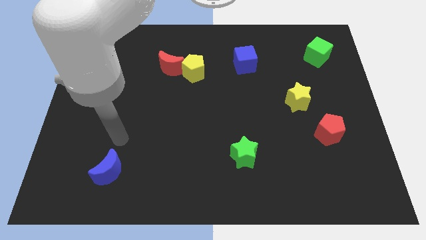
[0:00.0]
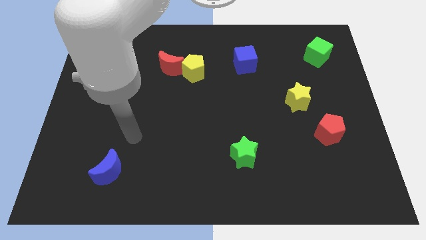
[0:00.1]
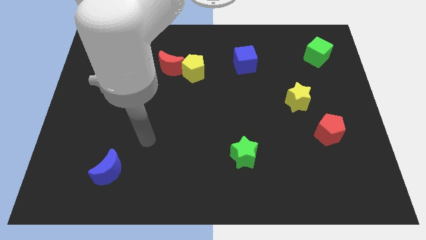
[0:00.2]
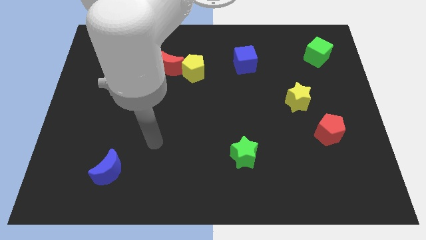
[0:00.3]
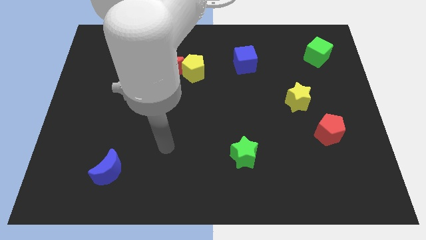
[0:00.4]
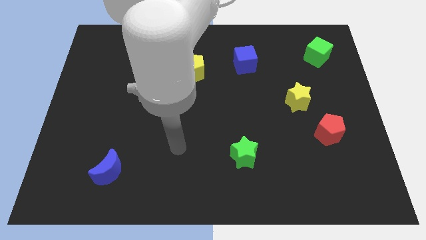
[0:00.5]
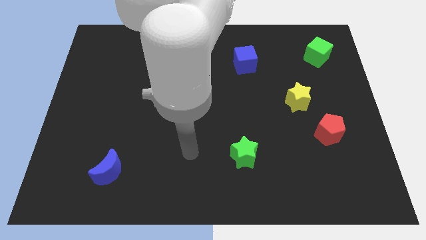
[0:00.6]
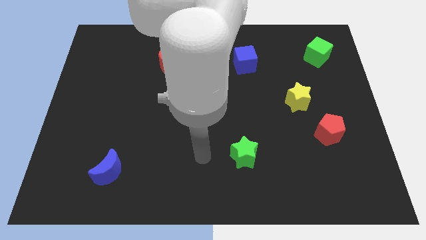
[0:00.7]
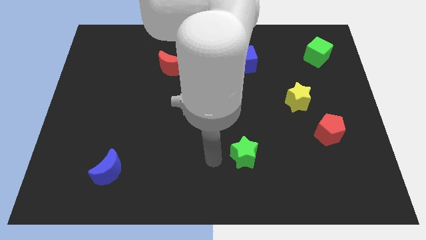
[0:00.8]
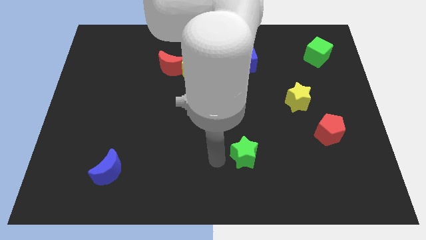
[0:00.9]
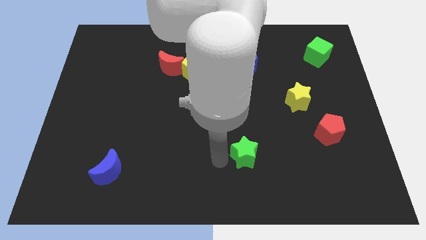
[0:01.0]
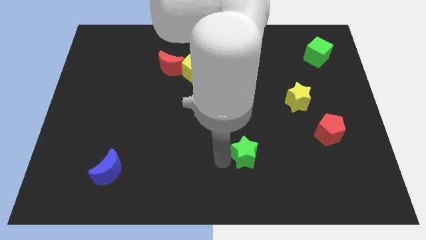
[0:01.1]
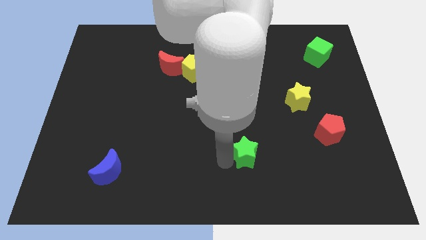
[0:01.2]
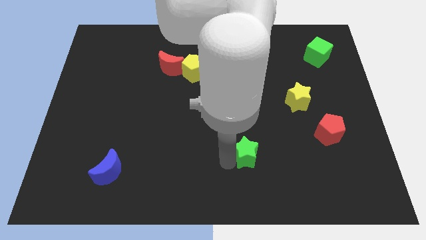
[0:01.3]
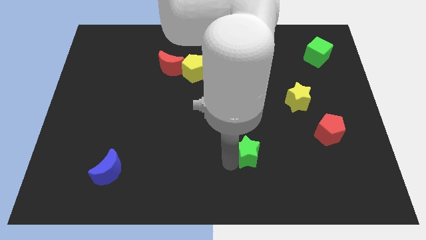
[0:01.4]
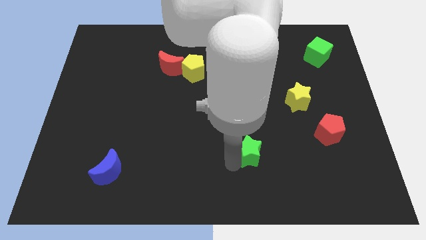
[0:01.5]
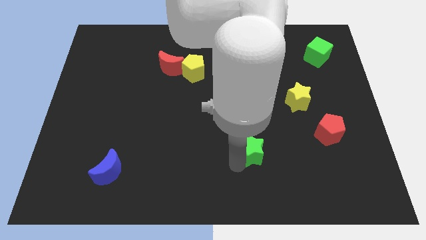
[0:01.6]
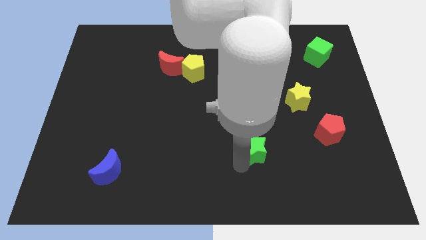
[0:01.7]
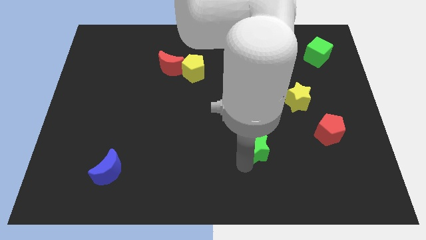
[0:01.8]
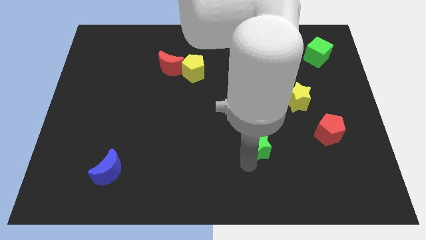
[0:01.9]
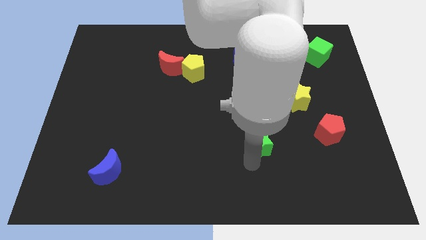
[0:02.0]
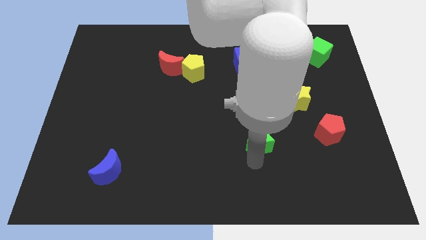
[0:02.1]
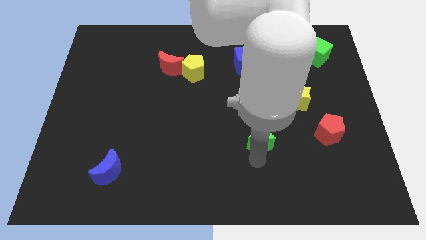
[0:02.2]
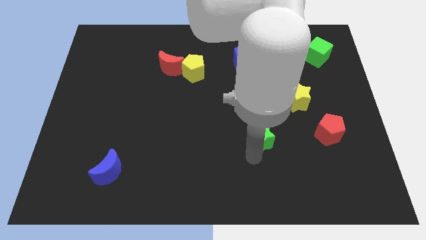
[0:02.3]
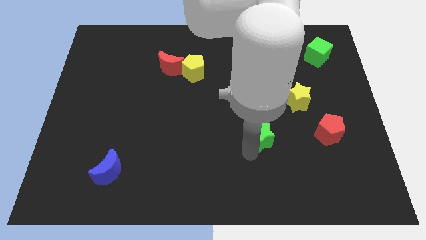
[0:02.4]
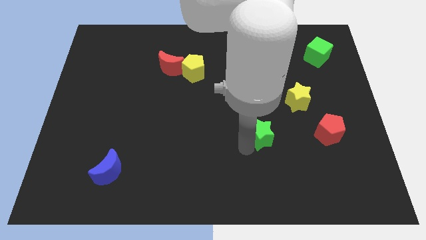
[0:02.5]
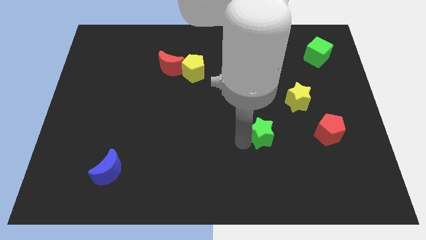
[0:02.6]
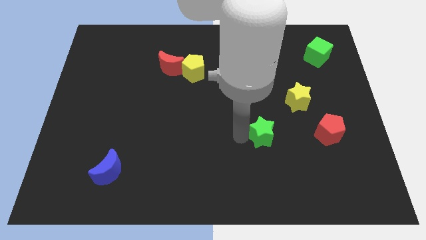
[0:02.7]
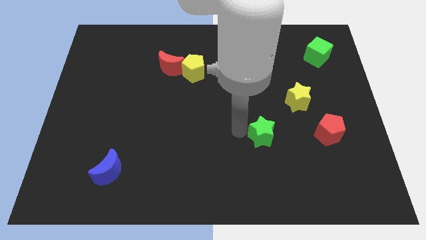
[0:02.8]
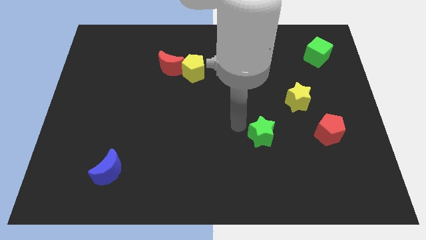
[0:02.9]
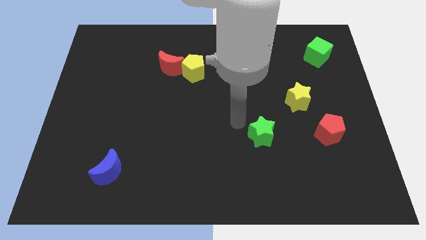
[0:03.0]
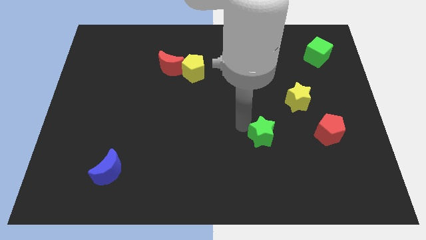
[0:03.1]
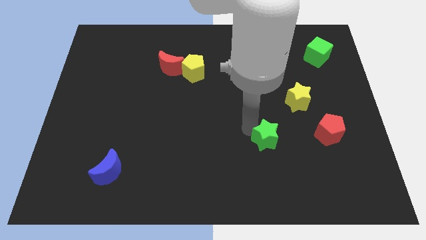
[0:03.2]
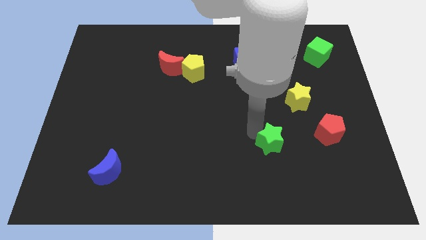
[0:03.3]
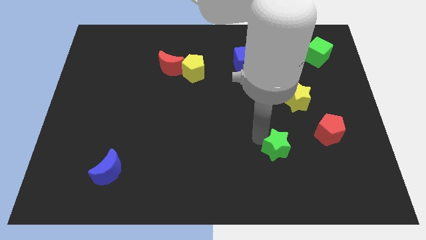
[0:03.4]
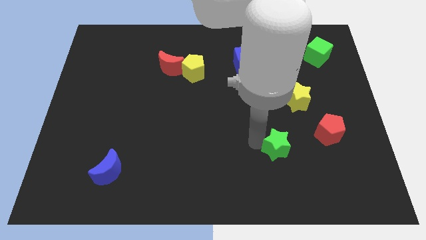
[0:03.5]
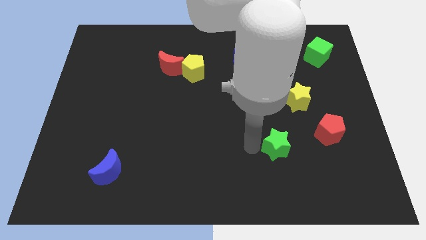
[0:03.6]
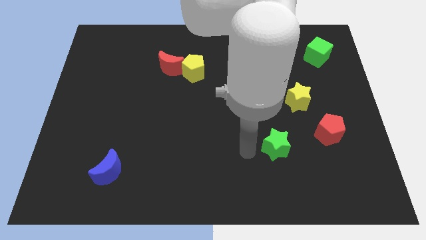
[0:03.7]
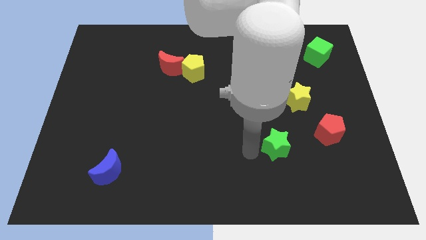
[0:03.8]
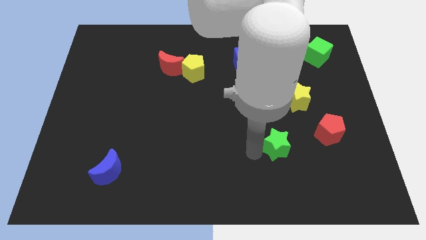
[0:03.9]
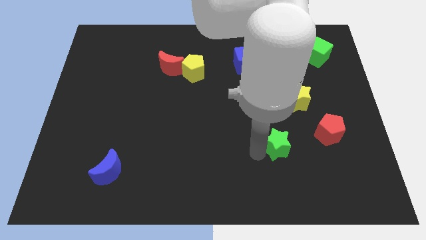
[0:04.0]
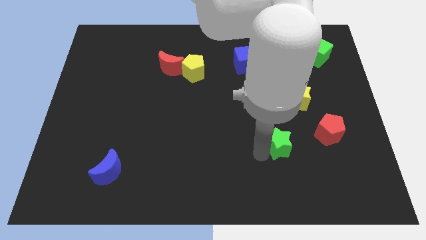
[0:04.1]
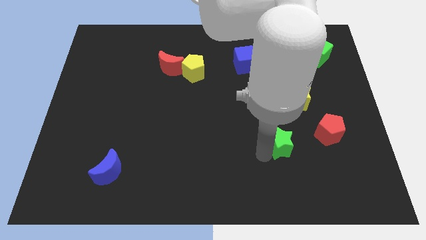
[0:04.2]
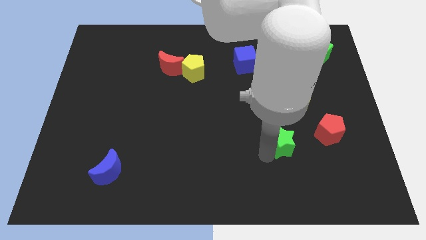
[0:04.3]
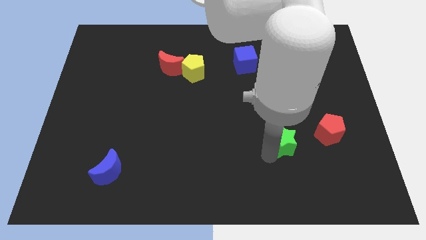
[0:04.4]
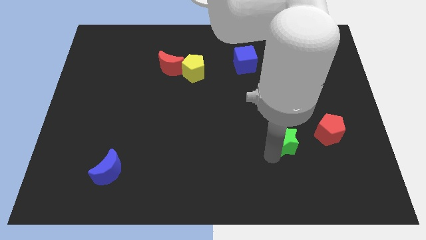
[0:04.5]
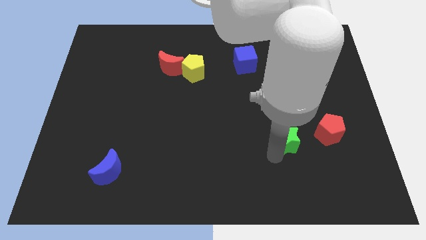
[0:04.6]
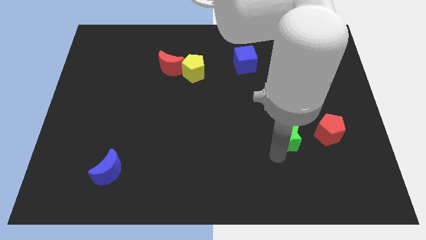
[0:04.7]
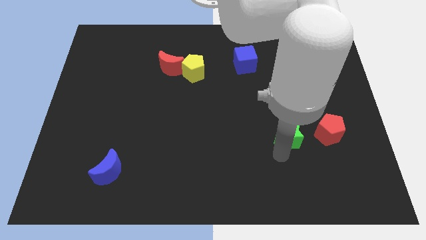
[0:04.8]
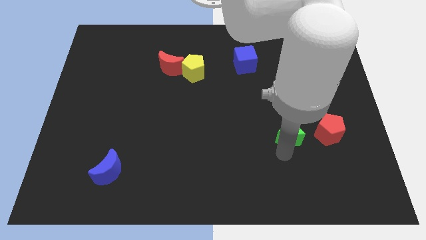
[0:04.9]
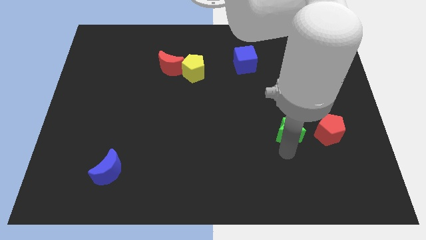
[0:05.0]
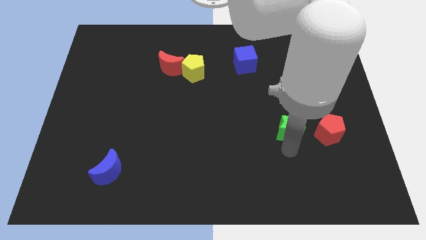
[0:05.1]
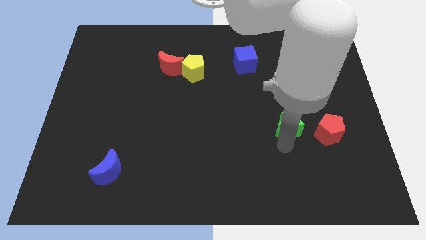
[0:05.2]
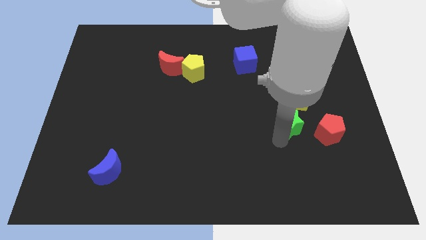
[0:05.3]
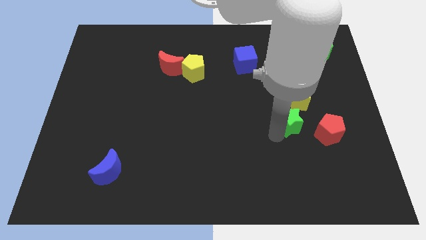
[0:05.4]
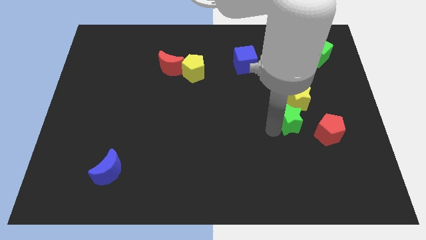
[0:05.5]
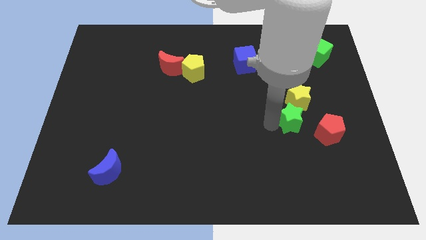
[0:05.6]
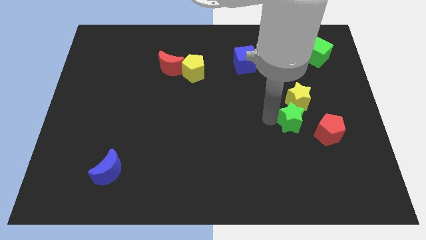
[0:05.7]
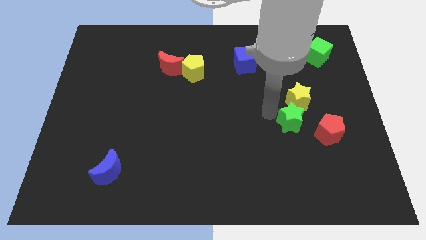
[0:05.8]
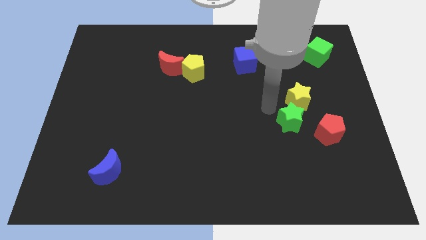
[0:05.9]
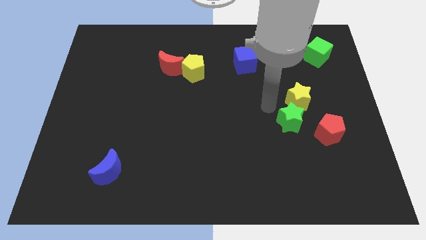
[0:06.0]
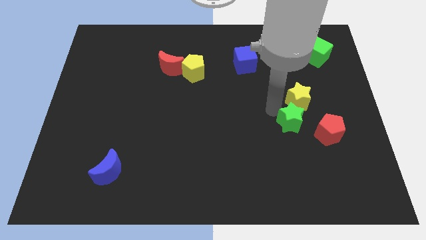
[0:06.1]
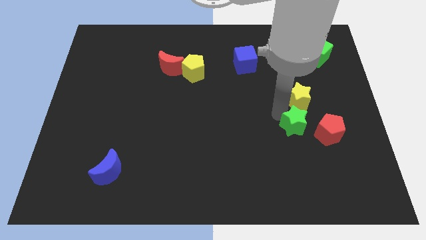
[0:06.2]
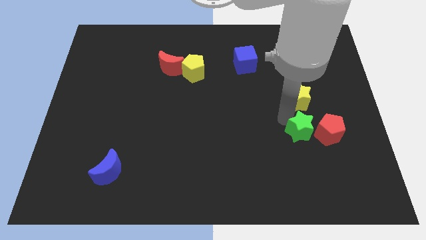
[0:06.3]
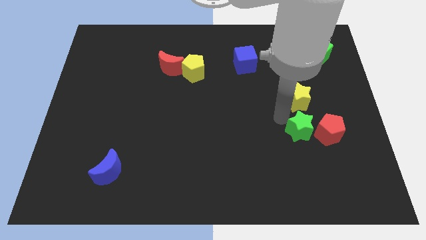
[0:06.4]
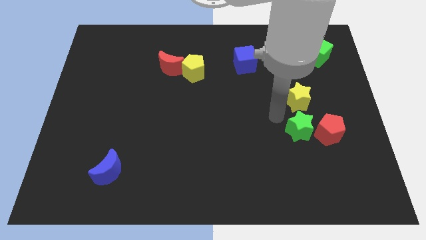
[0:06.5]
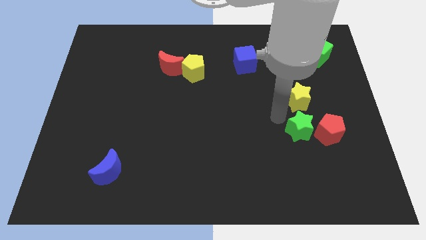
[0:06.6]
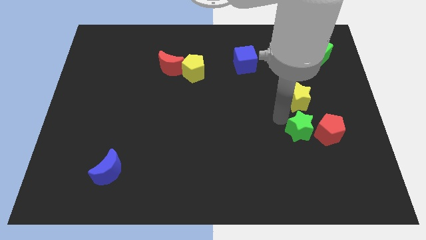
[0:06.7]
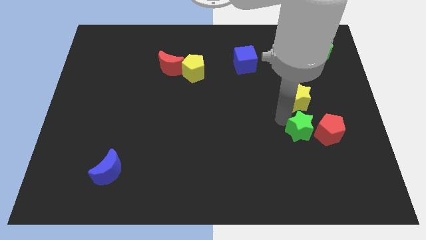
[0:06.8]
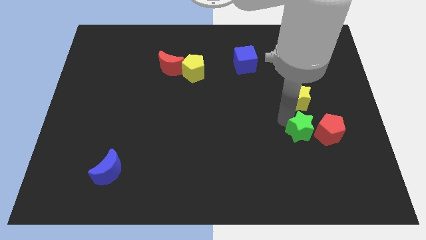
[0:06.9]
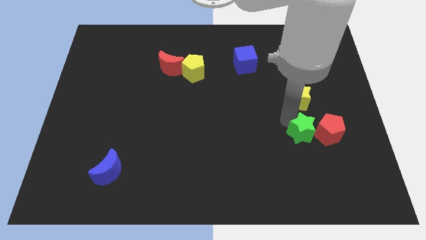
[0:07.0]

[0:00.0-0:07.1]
push the green star close to the red pentagon

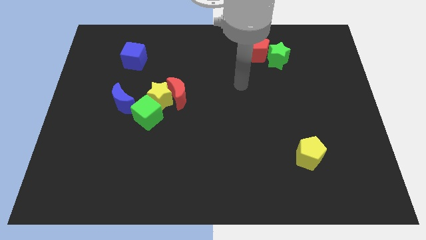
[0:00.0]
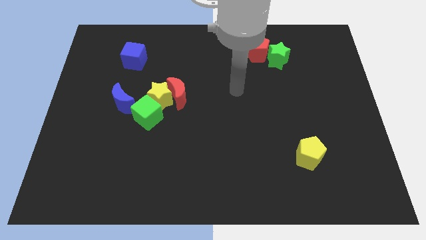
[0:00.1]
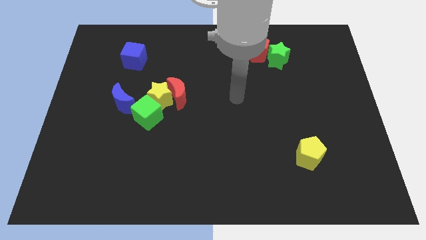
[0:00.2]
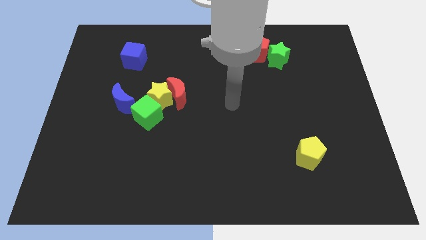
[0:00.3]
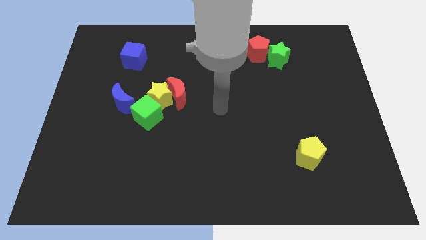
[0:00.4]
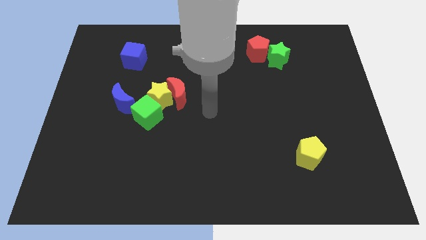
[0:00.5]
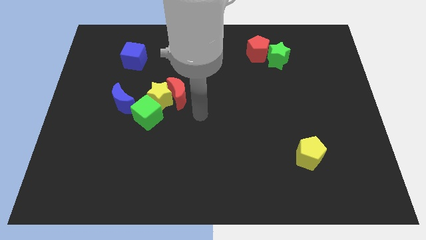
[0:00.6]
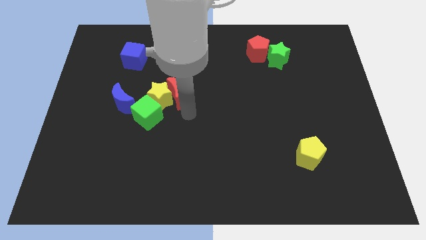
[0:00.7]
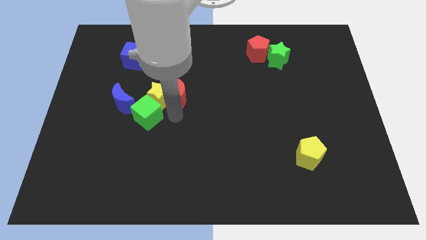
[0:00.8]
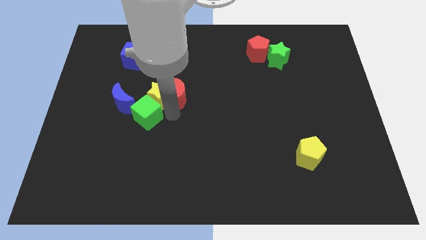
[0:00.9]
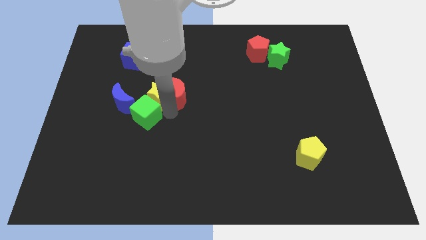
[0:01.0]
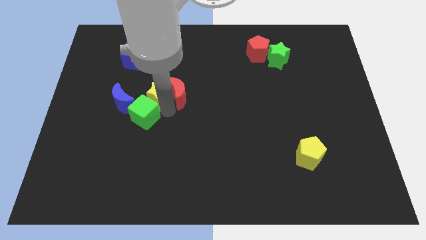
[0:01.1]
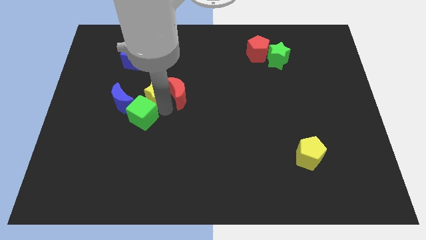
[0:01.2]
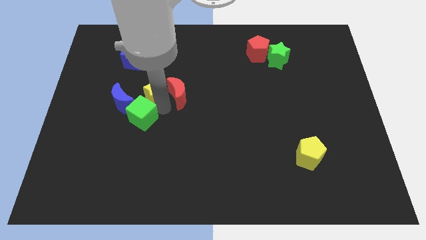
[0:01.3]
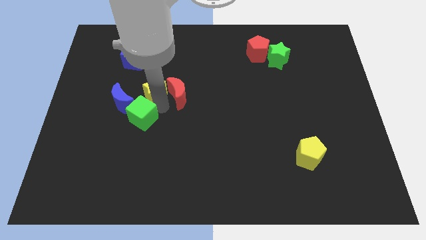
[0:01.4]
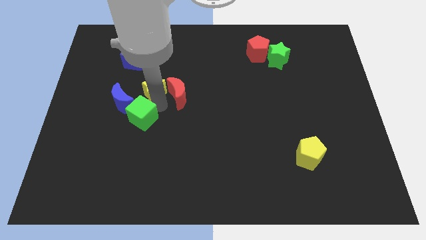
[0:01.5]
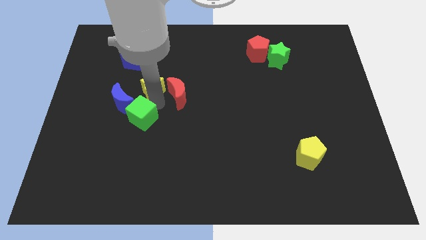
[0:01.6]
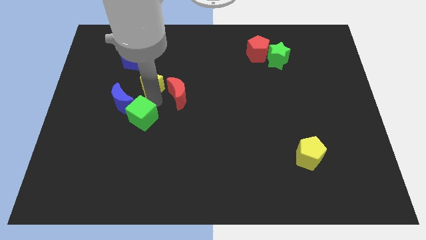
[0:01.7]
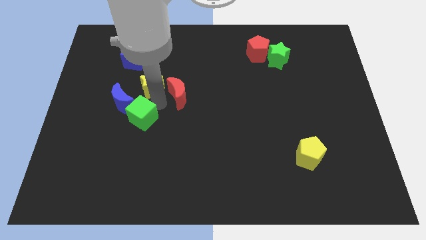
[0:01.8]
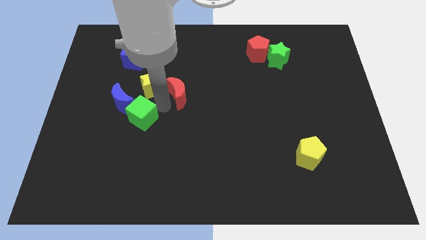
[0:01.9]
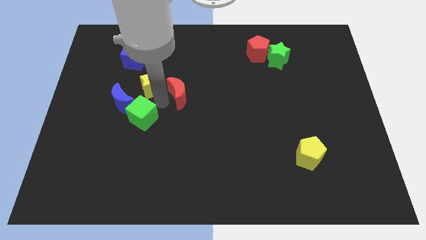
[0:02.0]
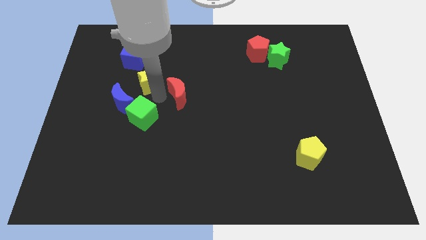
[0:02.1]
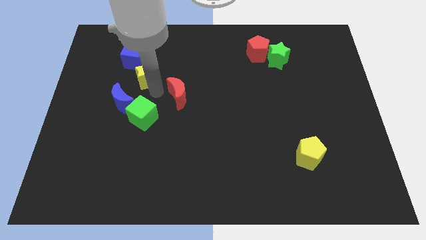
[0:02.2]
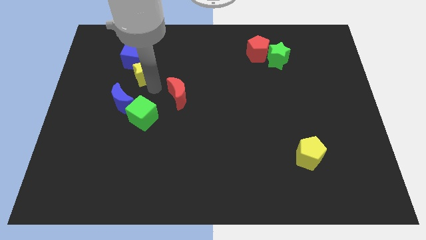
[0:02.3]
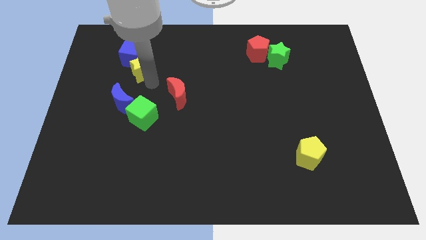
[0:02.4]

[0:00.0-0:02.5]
slide the yellow star close to the blue cube
